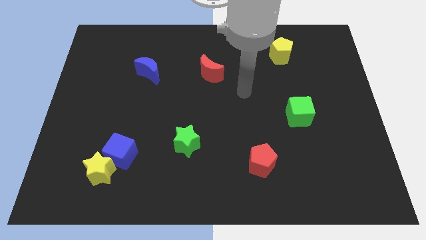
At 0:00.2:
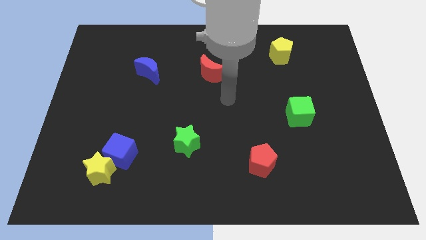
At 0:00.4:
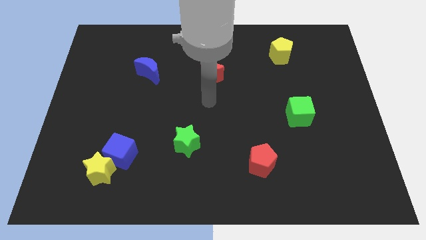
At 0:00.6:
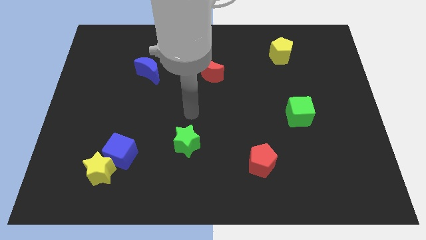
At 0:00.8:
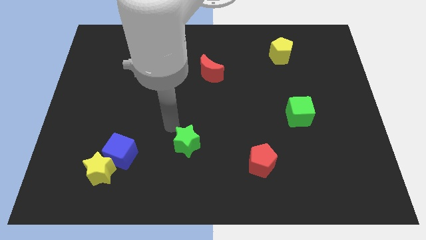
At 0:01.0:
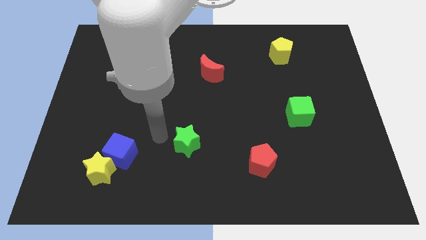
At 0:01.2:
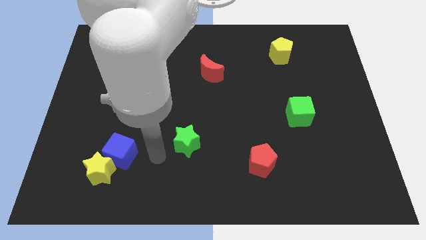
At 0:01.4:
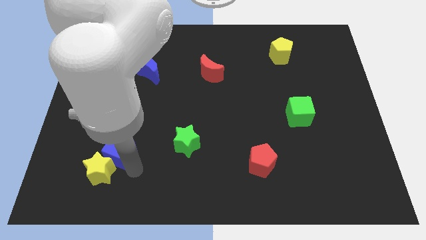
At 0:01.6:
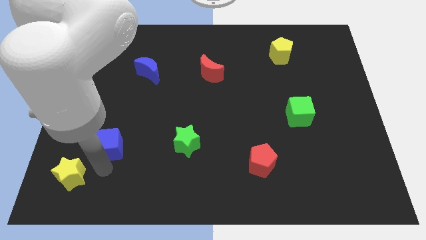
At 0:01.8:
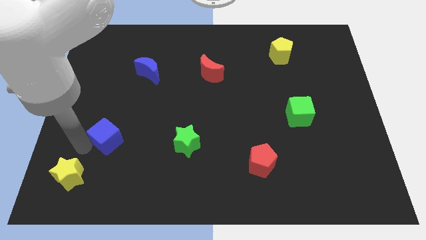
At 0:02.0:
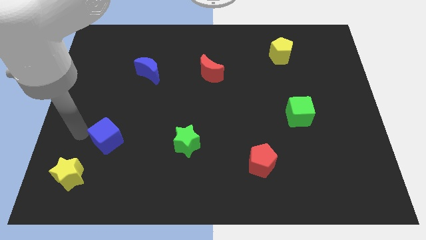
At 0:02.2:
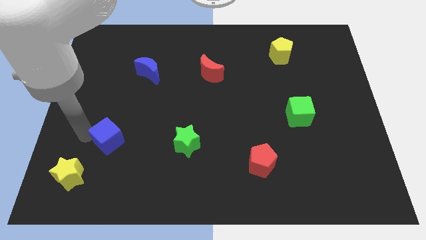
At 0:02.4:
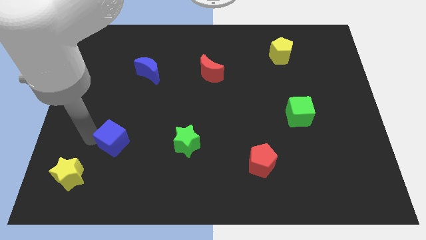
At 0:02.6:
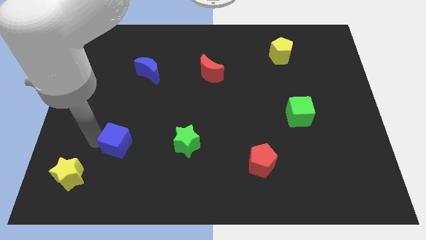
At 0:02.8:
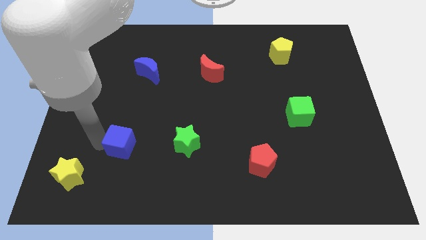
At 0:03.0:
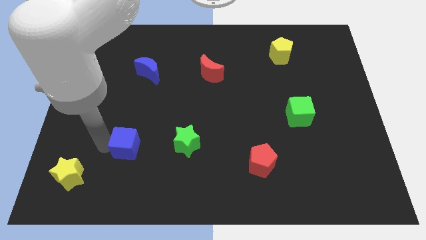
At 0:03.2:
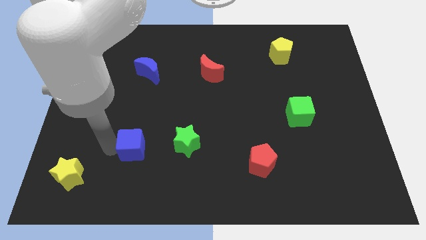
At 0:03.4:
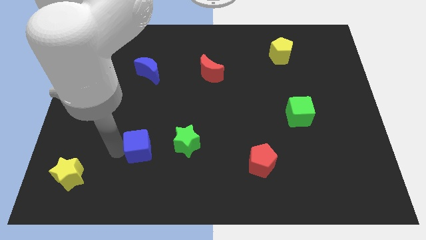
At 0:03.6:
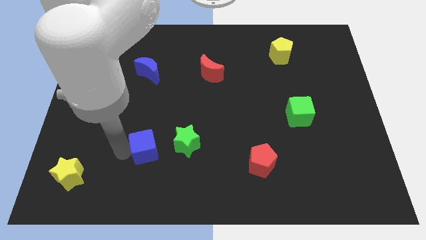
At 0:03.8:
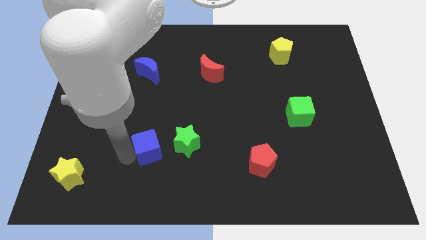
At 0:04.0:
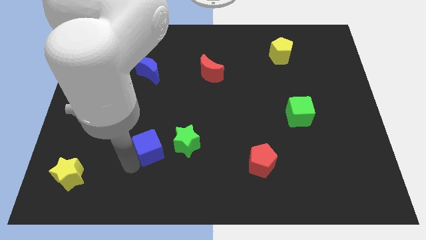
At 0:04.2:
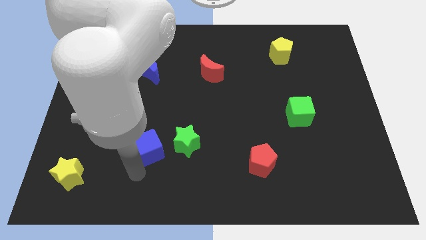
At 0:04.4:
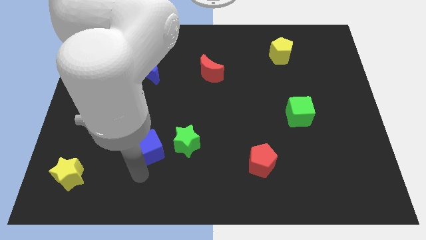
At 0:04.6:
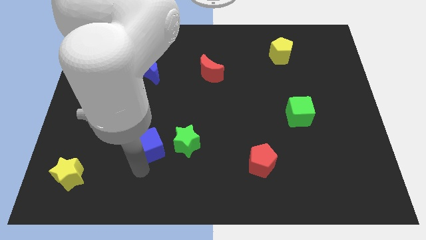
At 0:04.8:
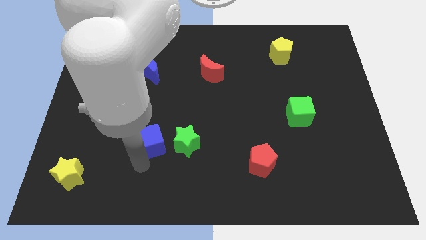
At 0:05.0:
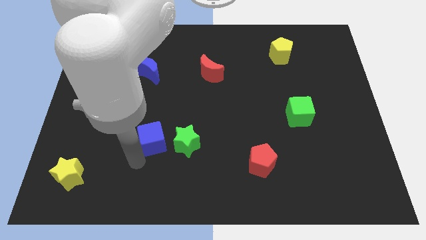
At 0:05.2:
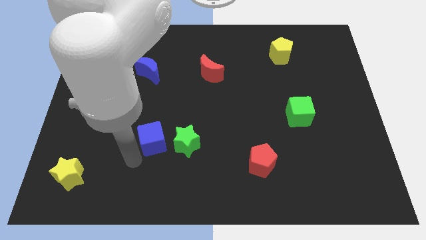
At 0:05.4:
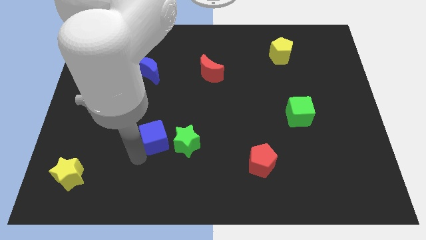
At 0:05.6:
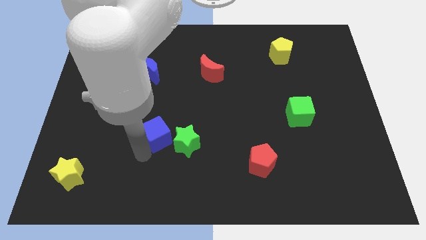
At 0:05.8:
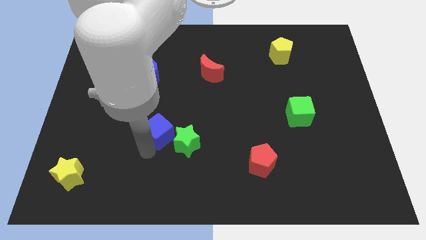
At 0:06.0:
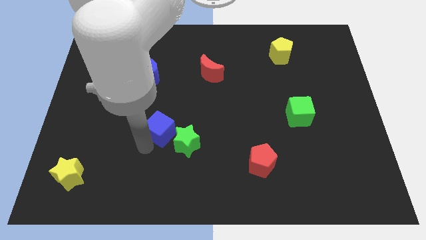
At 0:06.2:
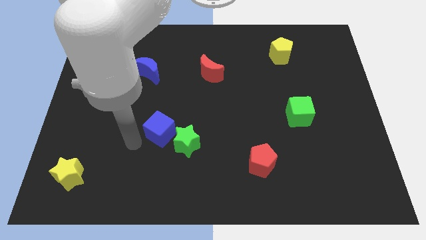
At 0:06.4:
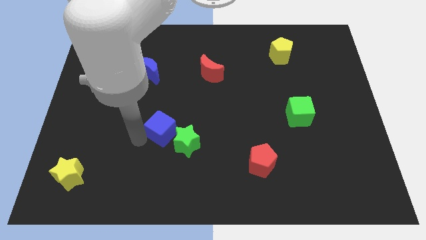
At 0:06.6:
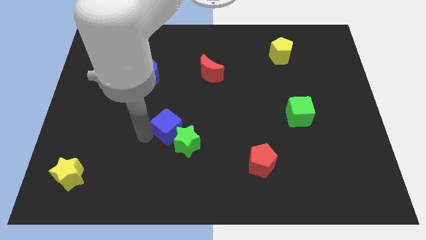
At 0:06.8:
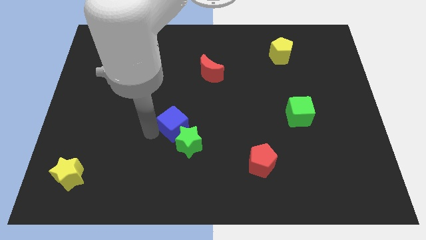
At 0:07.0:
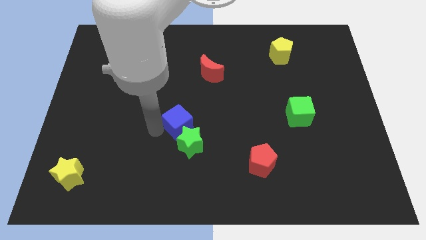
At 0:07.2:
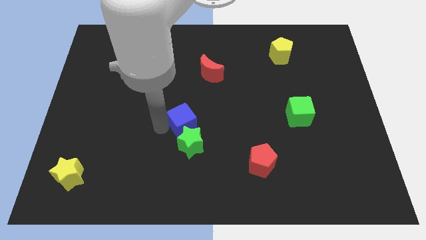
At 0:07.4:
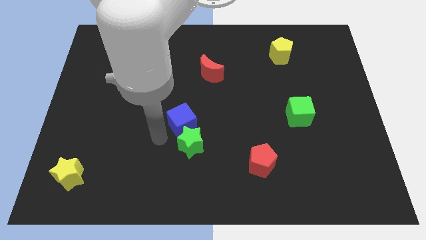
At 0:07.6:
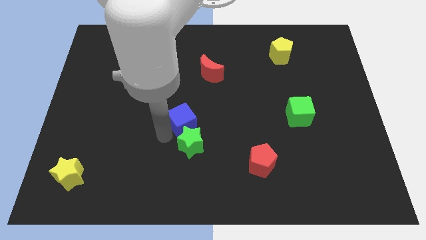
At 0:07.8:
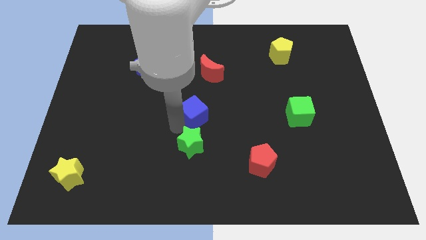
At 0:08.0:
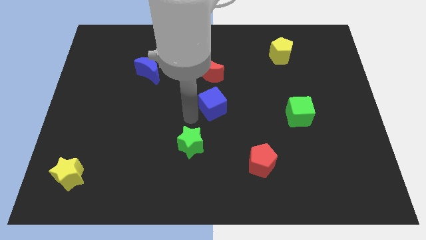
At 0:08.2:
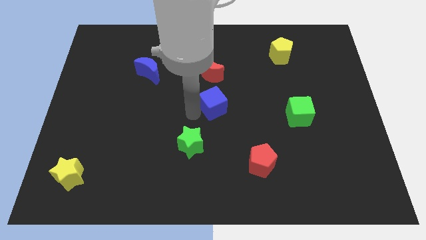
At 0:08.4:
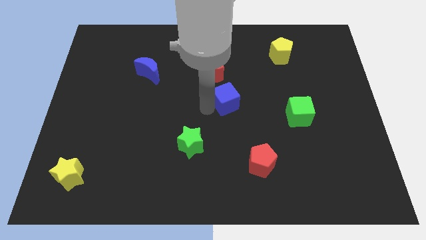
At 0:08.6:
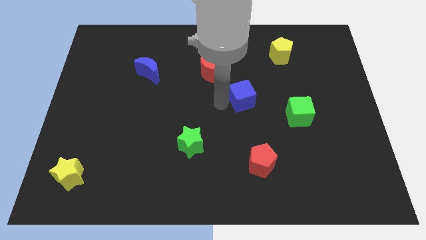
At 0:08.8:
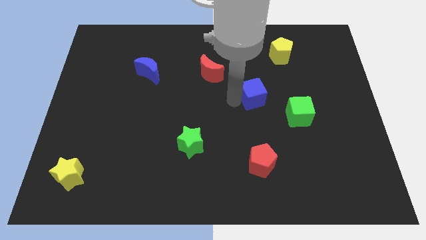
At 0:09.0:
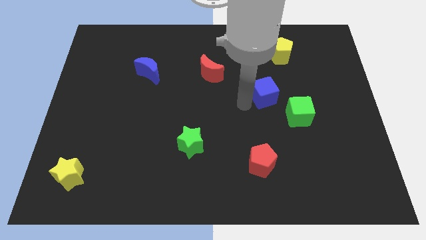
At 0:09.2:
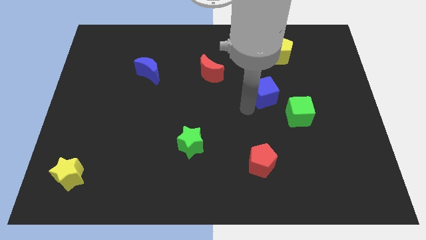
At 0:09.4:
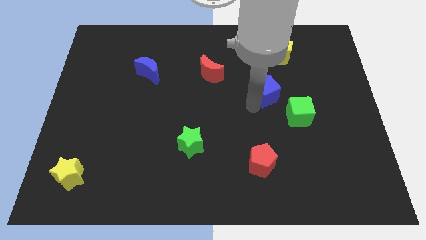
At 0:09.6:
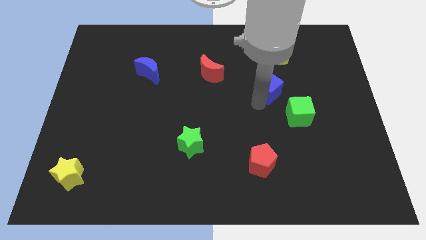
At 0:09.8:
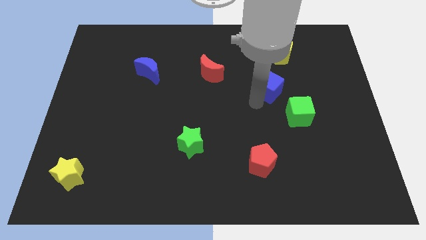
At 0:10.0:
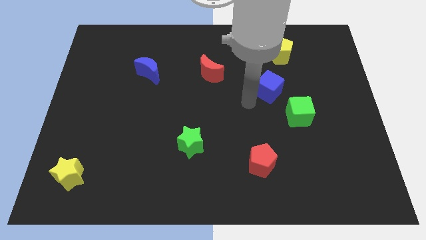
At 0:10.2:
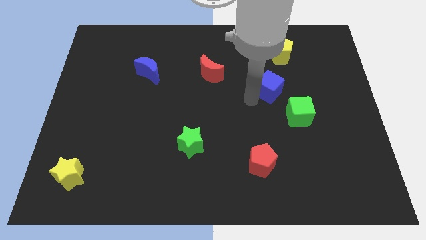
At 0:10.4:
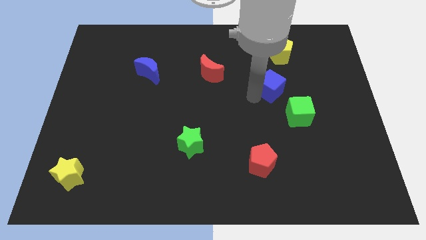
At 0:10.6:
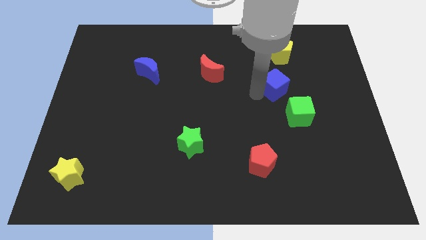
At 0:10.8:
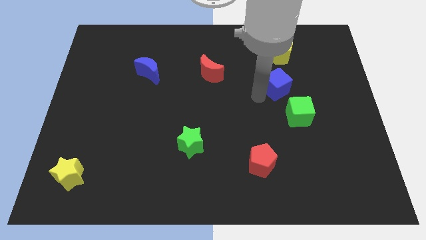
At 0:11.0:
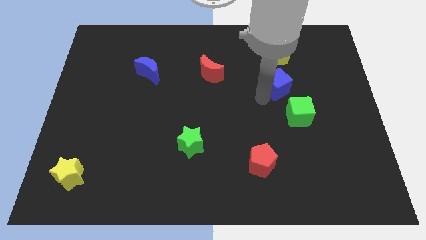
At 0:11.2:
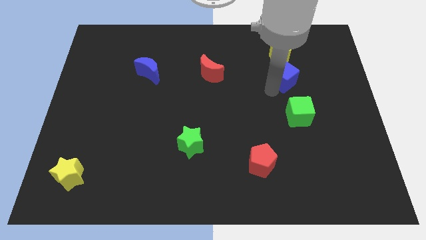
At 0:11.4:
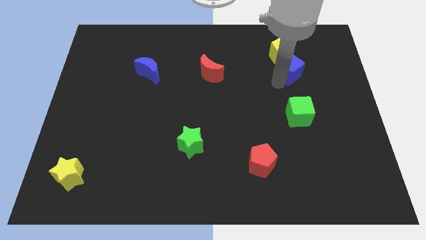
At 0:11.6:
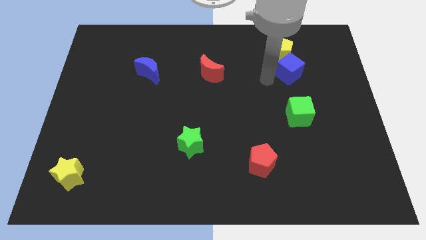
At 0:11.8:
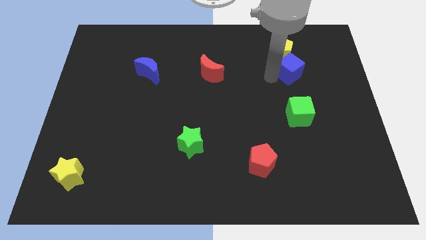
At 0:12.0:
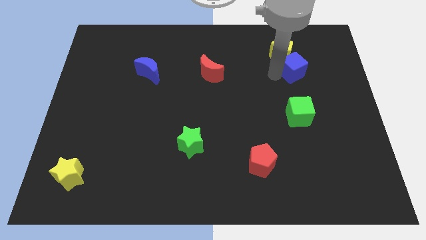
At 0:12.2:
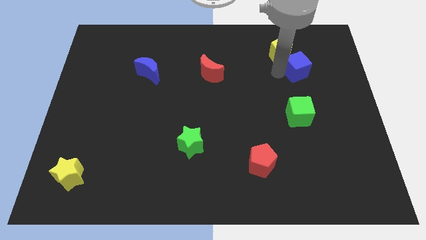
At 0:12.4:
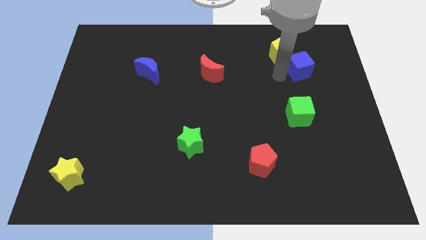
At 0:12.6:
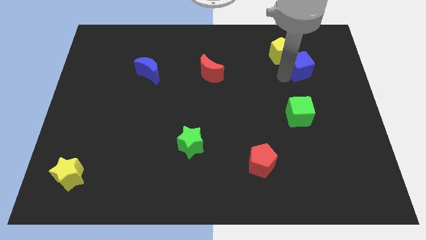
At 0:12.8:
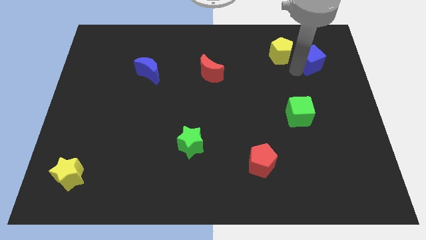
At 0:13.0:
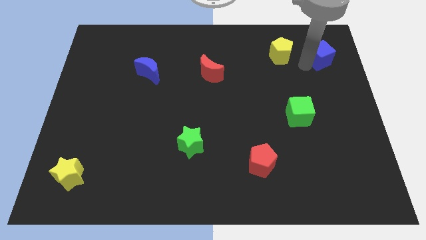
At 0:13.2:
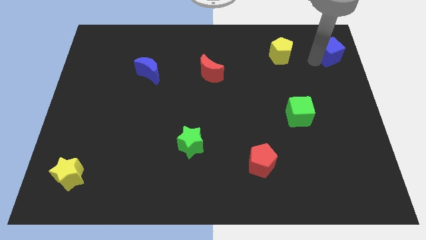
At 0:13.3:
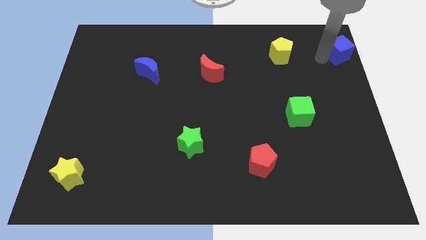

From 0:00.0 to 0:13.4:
push the blue cube to the top right
